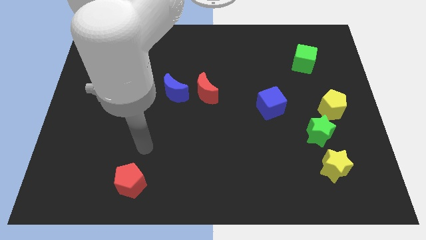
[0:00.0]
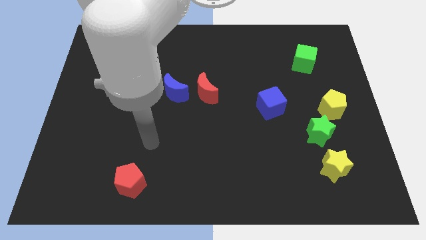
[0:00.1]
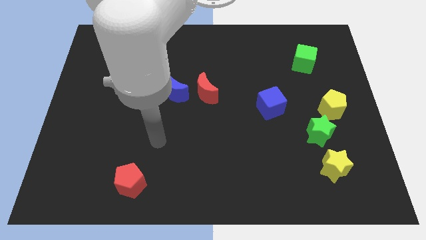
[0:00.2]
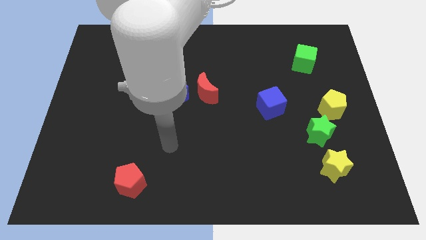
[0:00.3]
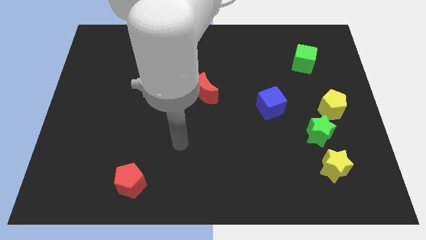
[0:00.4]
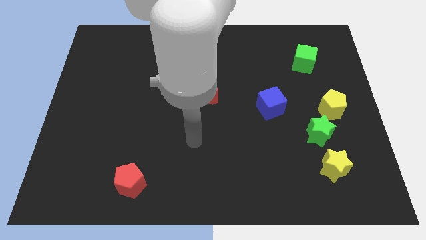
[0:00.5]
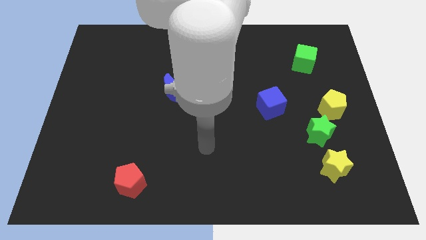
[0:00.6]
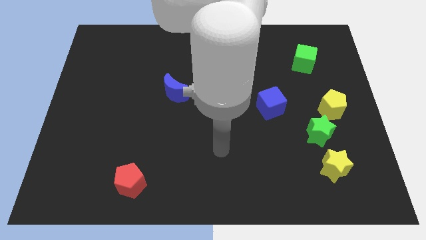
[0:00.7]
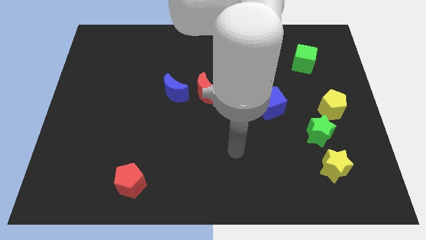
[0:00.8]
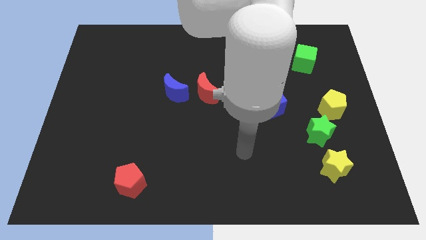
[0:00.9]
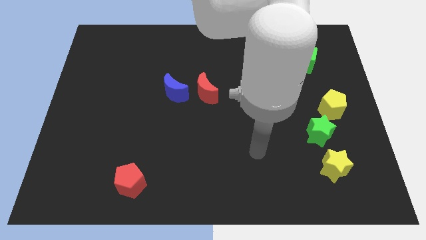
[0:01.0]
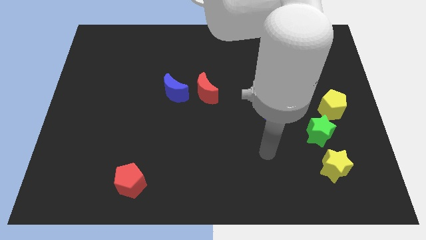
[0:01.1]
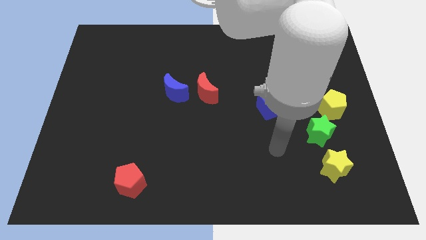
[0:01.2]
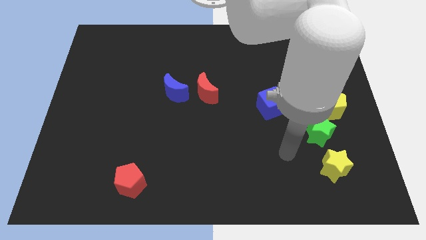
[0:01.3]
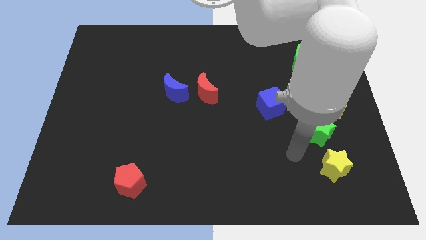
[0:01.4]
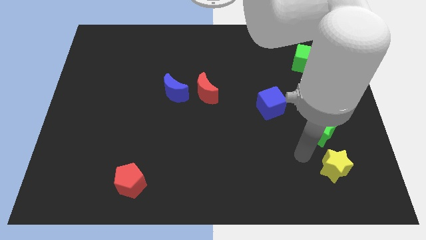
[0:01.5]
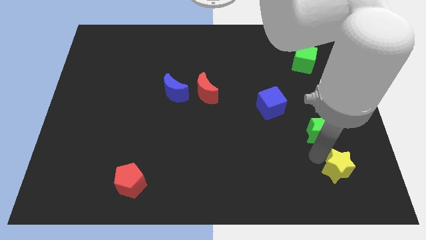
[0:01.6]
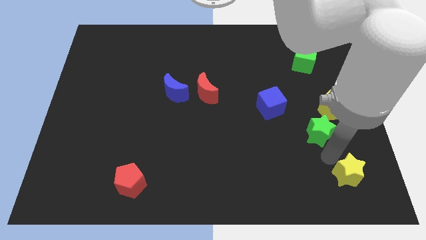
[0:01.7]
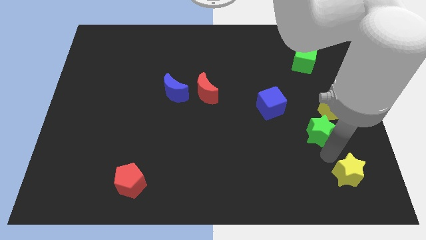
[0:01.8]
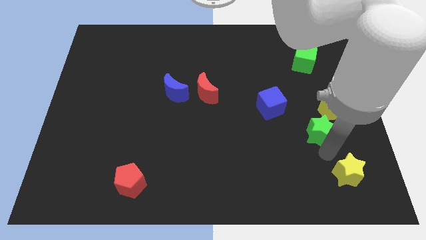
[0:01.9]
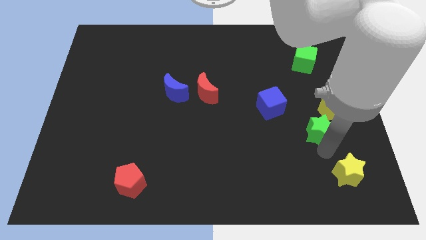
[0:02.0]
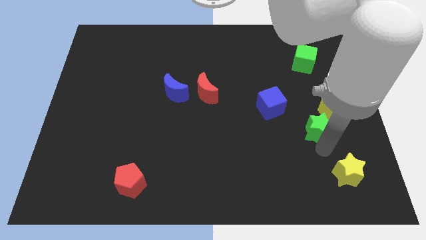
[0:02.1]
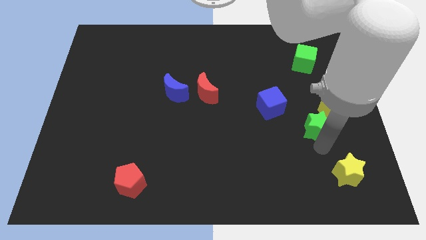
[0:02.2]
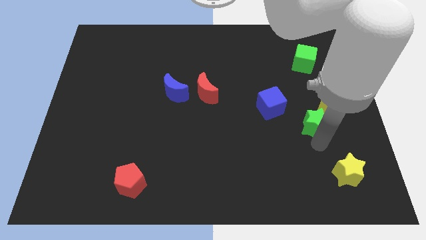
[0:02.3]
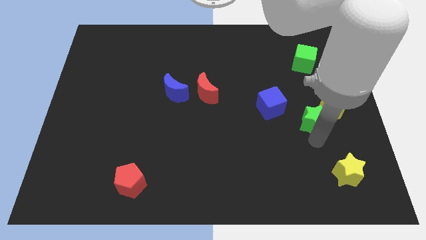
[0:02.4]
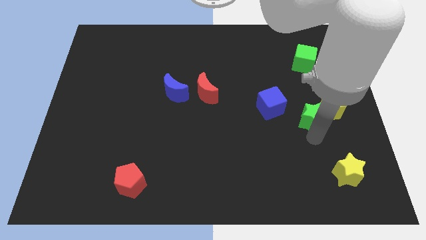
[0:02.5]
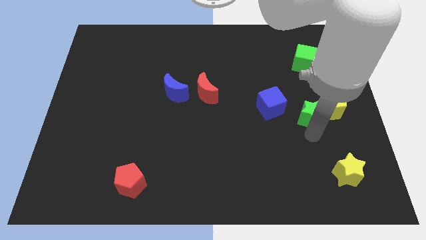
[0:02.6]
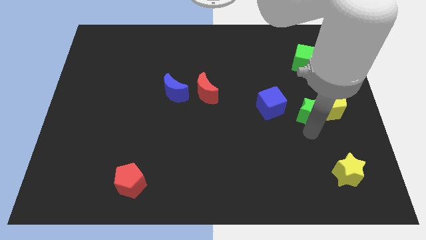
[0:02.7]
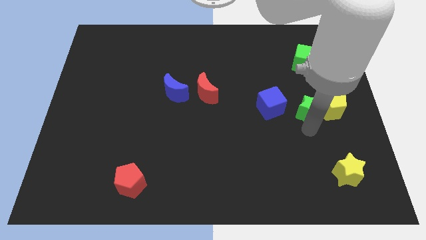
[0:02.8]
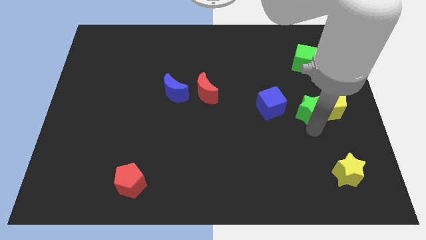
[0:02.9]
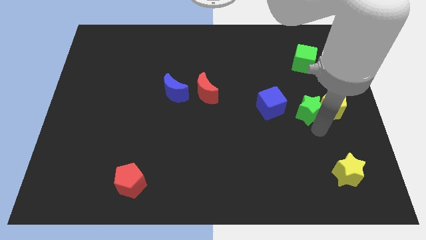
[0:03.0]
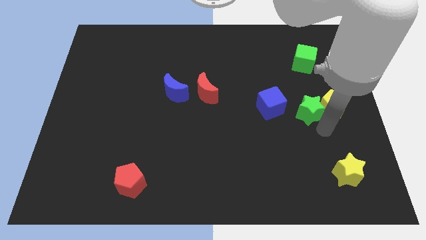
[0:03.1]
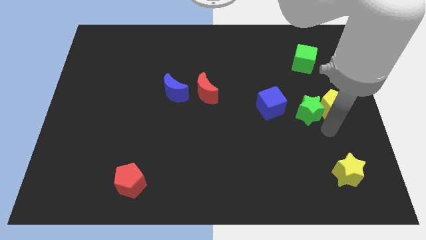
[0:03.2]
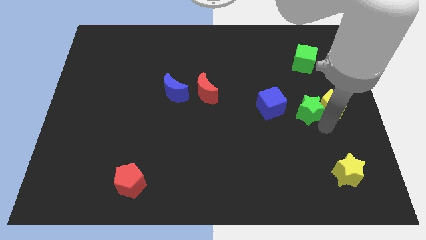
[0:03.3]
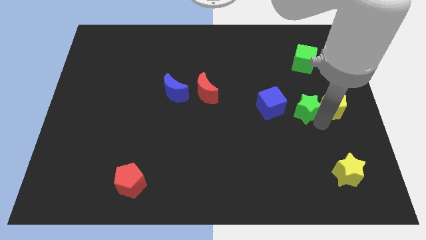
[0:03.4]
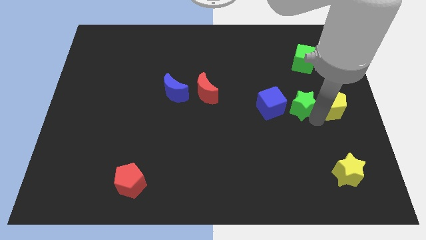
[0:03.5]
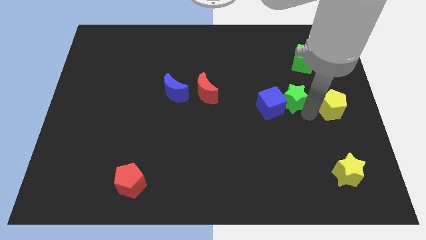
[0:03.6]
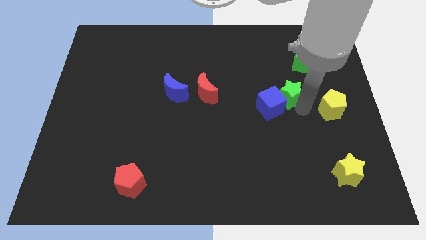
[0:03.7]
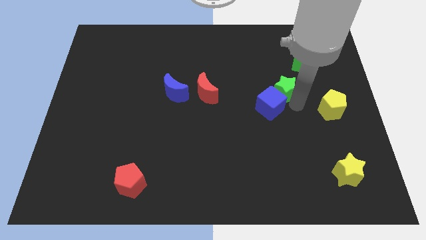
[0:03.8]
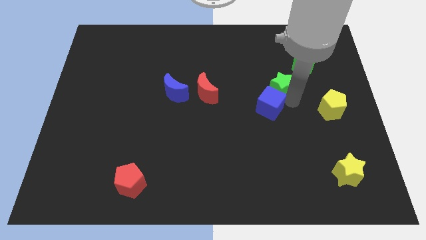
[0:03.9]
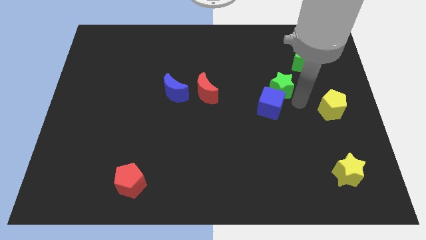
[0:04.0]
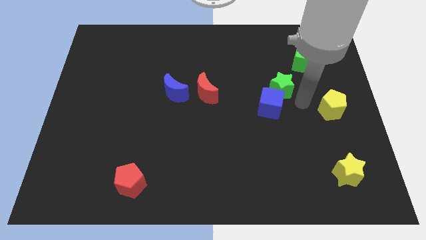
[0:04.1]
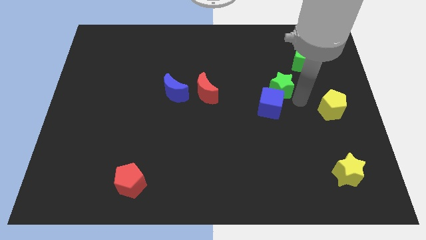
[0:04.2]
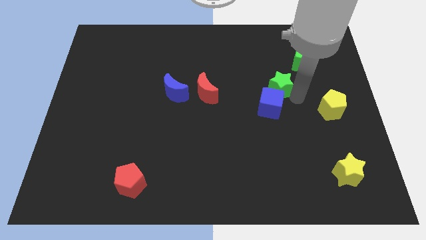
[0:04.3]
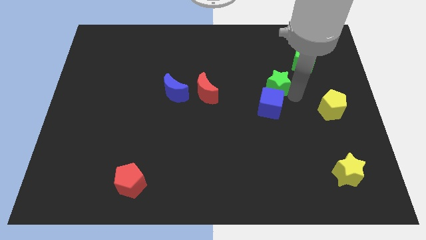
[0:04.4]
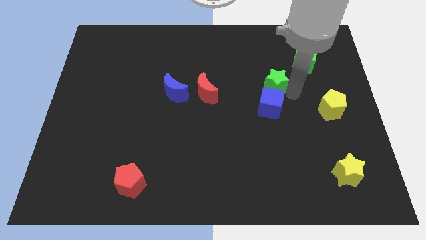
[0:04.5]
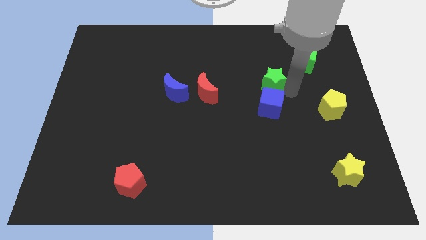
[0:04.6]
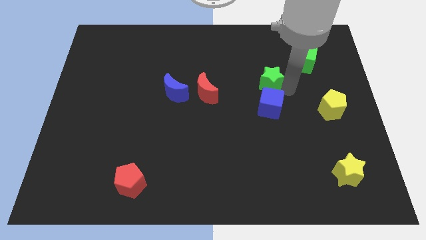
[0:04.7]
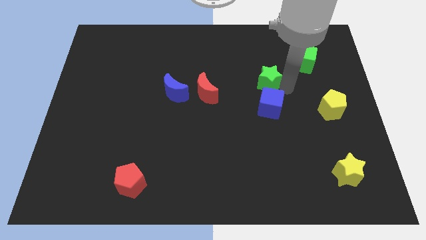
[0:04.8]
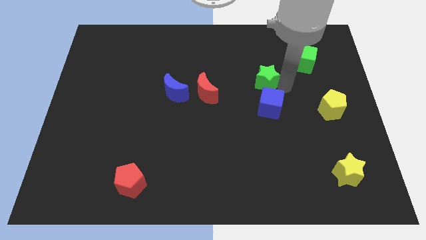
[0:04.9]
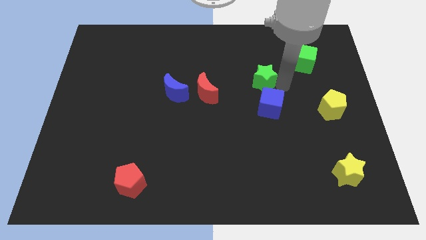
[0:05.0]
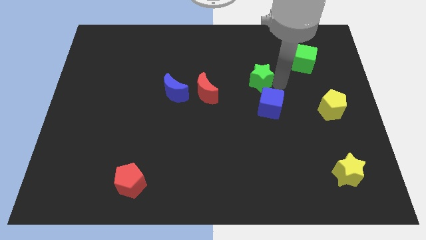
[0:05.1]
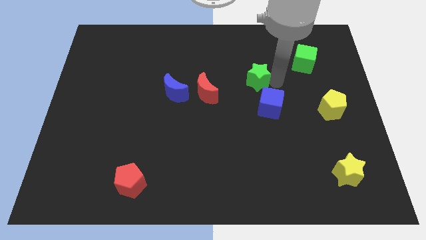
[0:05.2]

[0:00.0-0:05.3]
slide the green star up and left diagonally

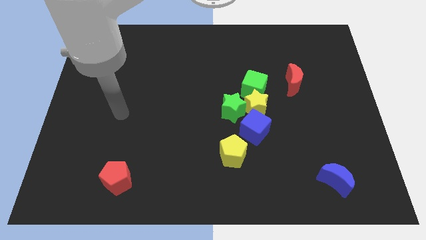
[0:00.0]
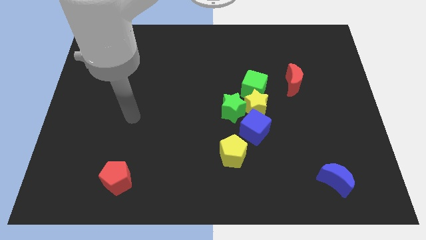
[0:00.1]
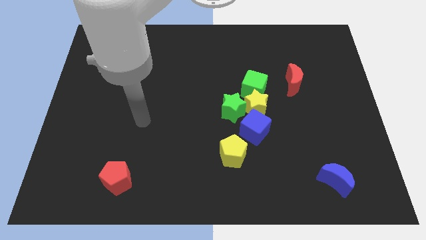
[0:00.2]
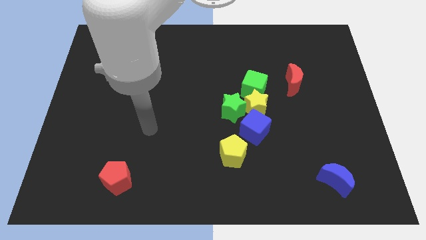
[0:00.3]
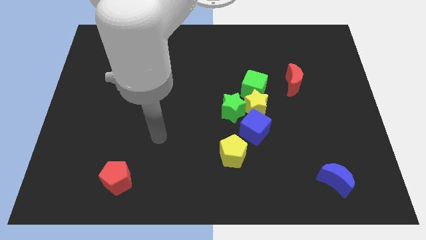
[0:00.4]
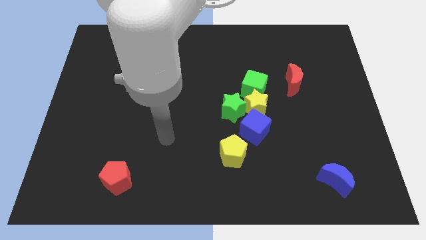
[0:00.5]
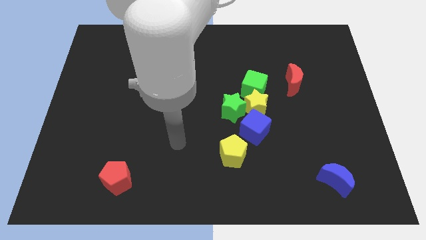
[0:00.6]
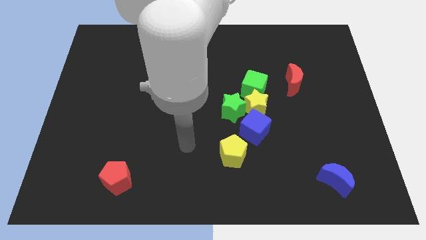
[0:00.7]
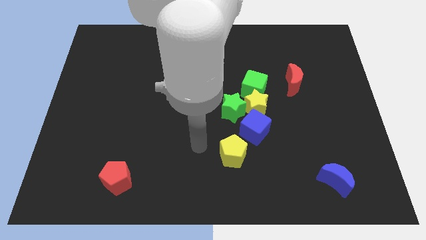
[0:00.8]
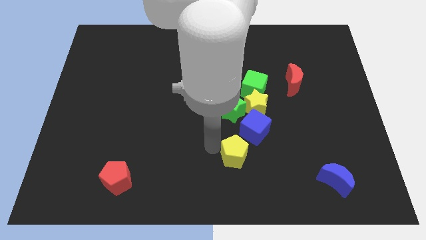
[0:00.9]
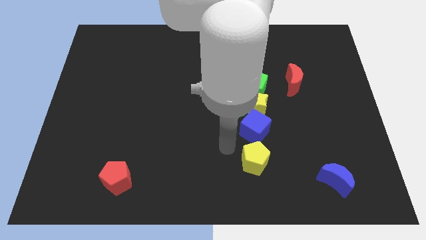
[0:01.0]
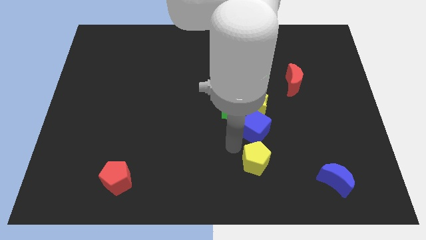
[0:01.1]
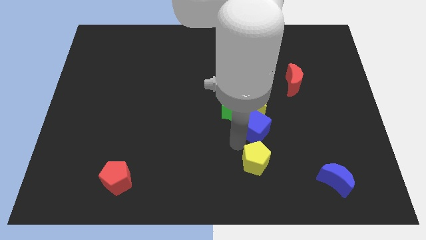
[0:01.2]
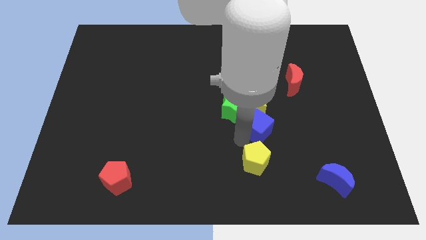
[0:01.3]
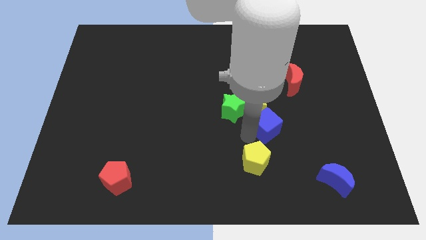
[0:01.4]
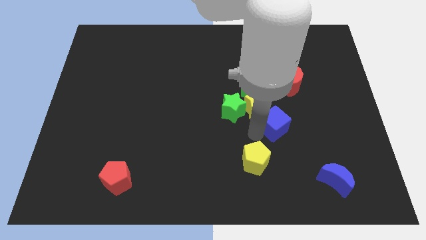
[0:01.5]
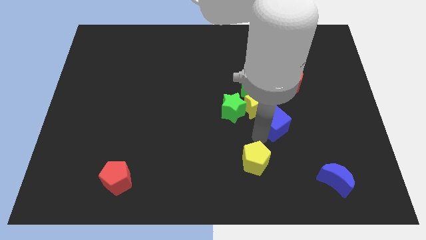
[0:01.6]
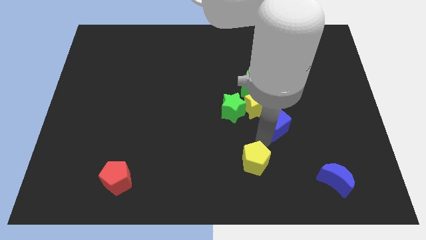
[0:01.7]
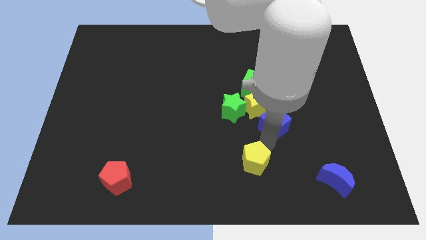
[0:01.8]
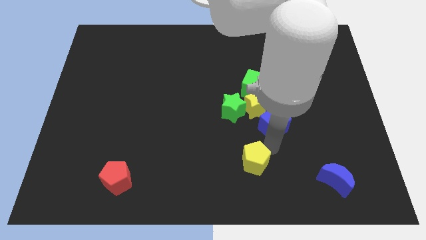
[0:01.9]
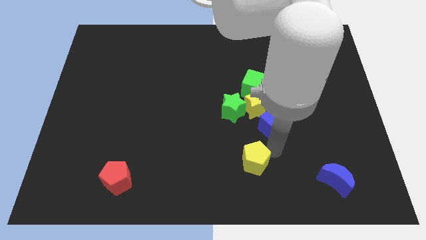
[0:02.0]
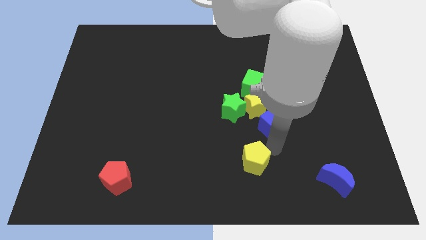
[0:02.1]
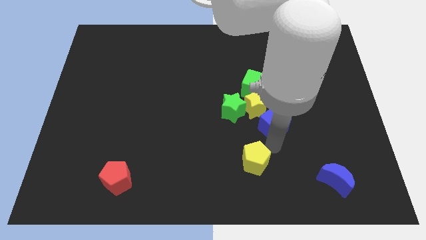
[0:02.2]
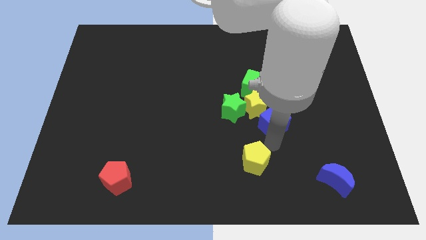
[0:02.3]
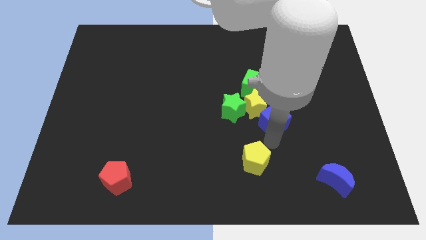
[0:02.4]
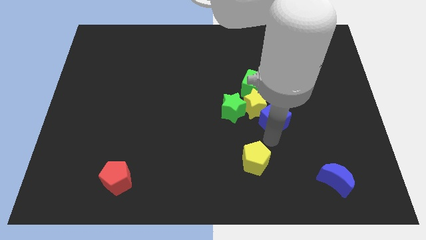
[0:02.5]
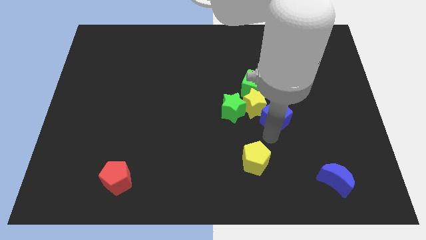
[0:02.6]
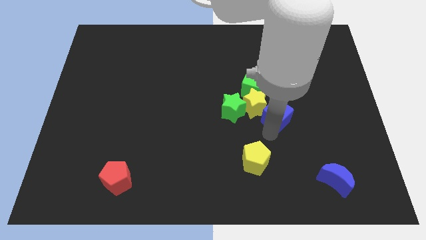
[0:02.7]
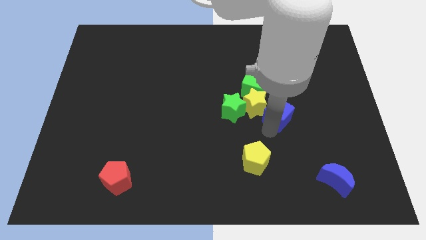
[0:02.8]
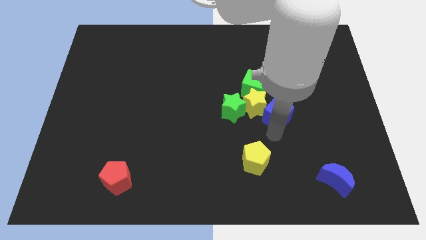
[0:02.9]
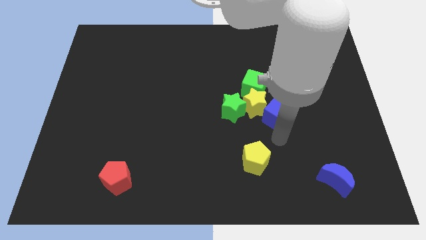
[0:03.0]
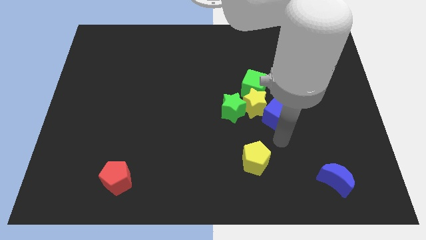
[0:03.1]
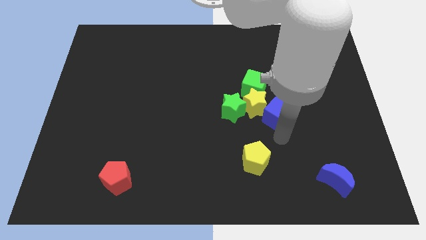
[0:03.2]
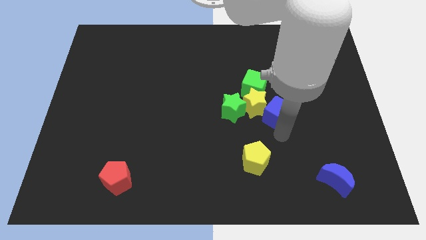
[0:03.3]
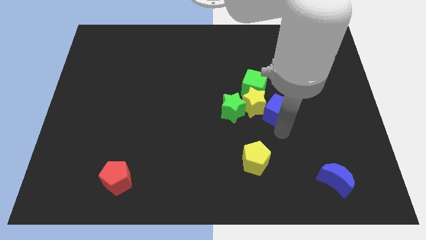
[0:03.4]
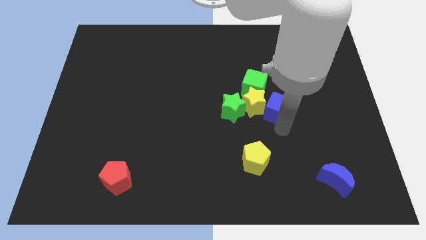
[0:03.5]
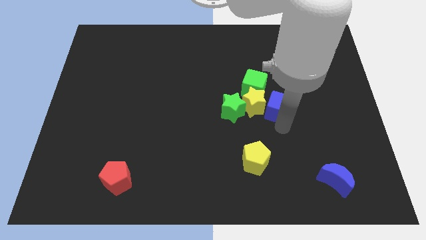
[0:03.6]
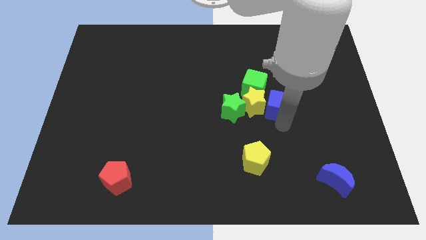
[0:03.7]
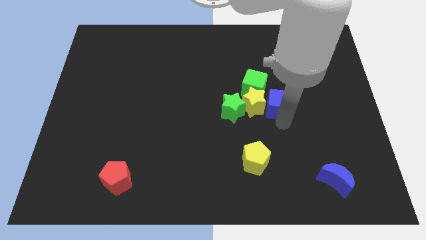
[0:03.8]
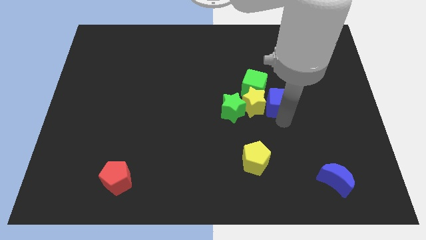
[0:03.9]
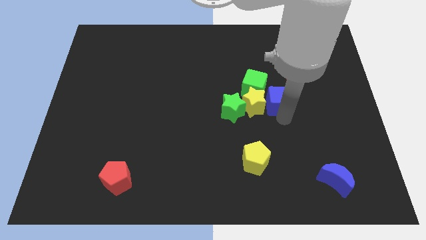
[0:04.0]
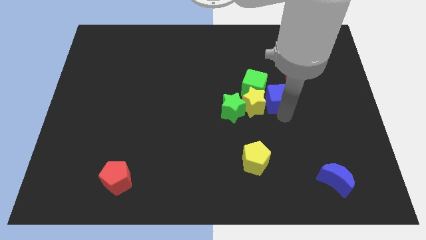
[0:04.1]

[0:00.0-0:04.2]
slightly slide the blue cube up
